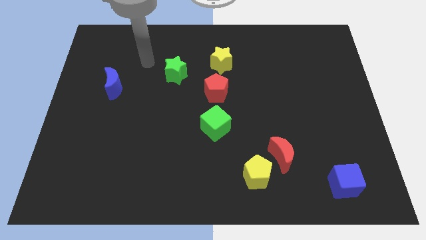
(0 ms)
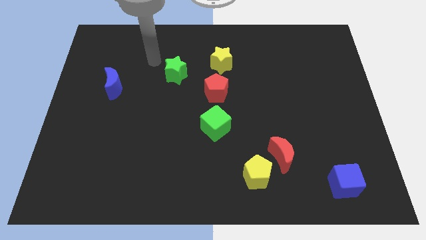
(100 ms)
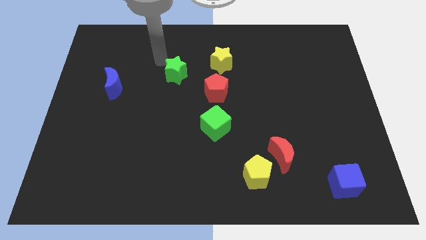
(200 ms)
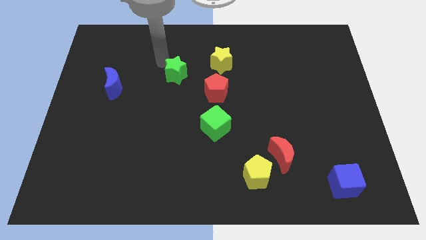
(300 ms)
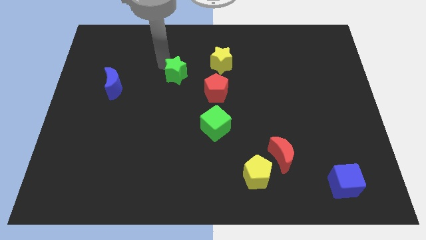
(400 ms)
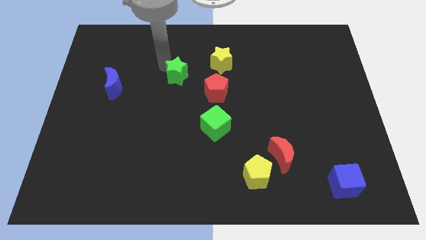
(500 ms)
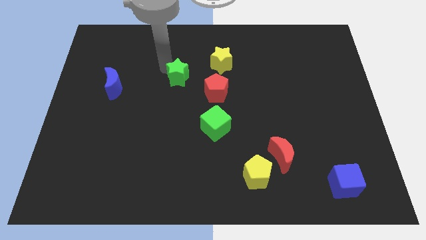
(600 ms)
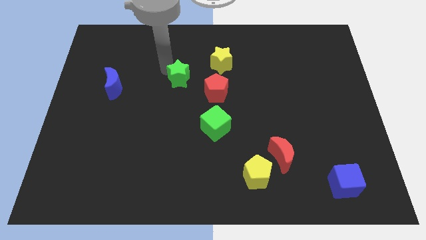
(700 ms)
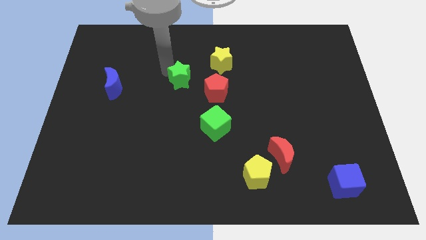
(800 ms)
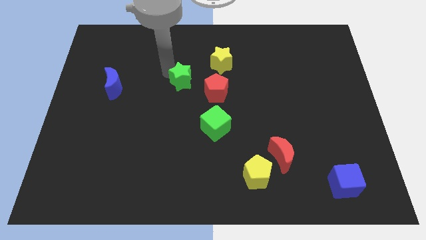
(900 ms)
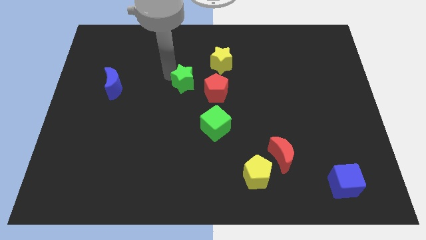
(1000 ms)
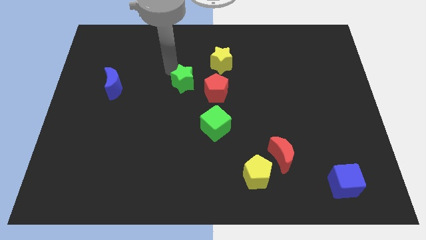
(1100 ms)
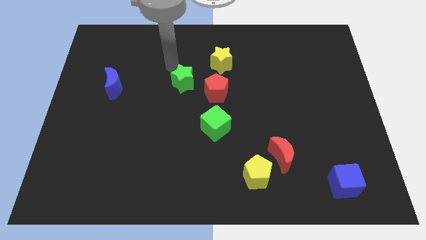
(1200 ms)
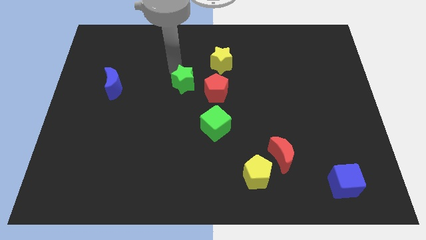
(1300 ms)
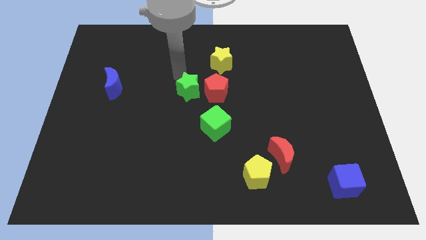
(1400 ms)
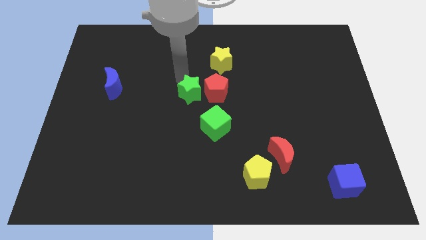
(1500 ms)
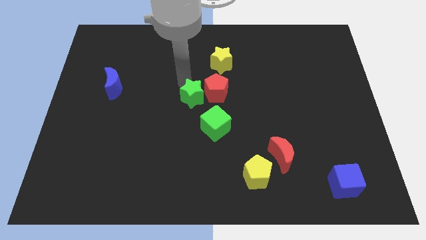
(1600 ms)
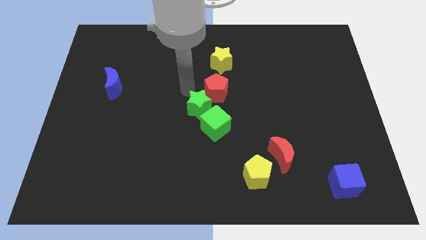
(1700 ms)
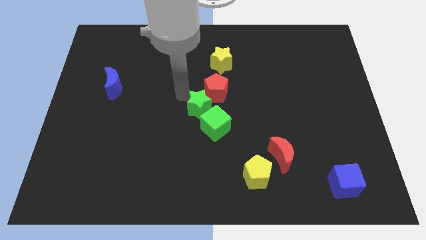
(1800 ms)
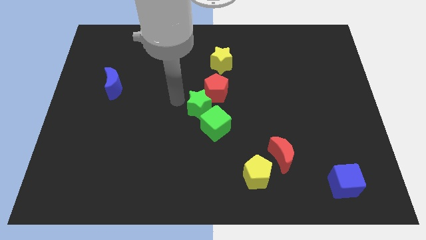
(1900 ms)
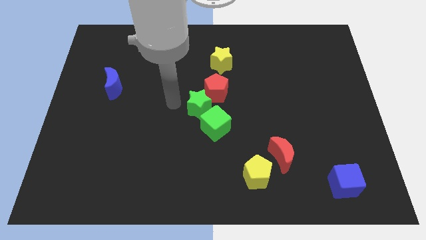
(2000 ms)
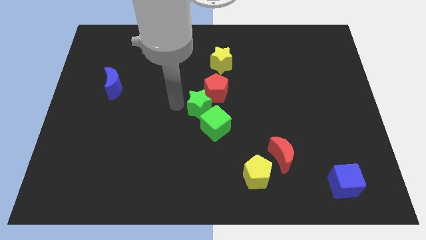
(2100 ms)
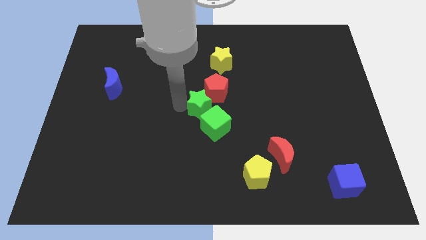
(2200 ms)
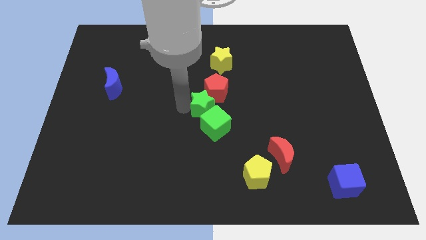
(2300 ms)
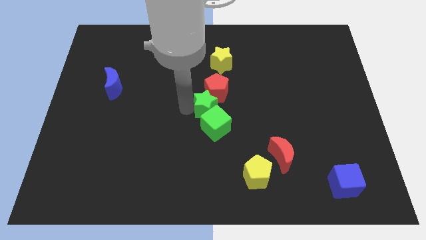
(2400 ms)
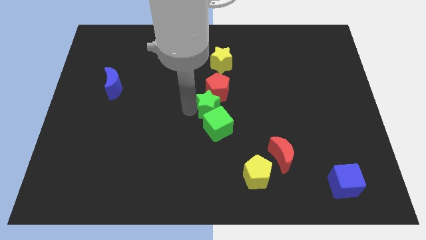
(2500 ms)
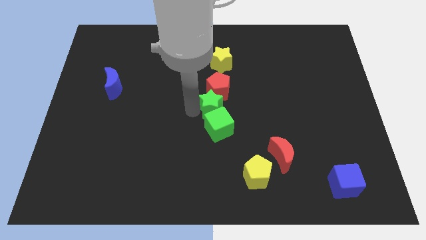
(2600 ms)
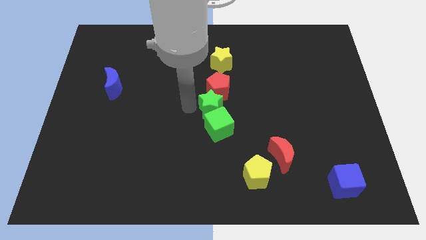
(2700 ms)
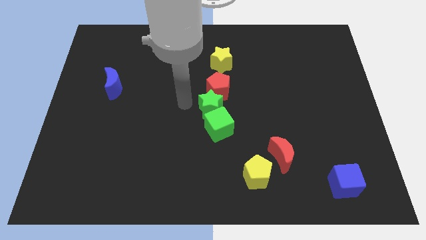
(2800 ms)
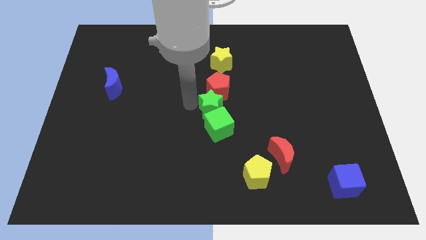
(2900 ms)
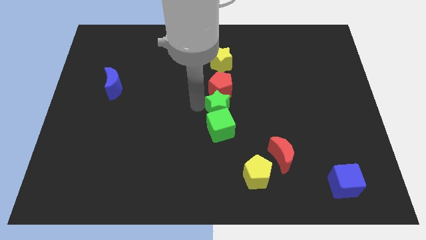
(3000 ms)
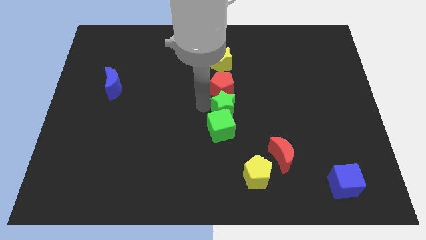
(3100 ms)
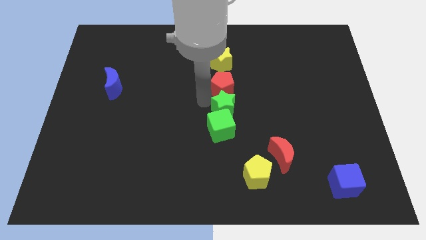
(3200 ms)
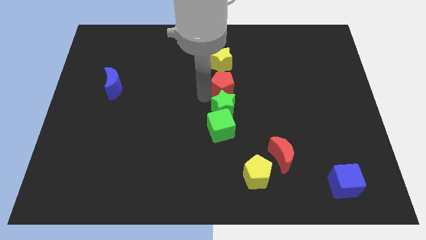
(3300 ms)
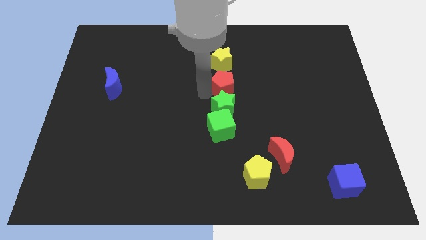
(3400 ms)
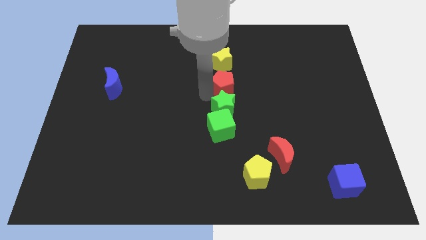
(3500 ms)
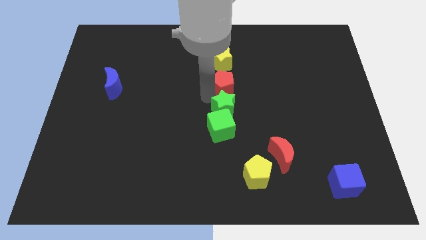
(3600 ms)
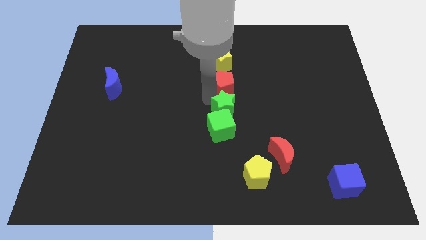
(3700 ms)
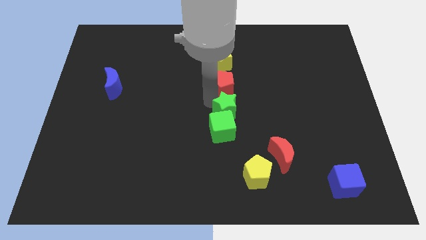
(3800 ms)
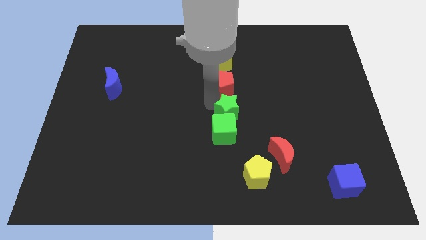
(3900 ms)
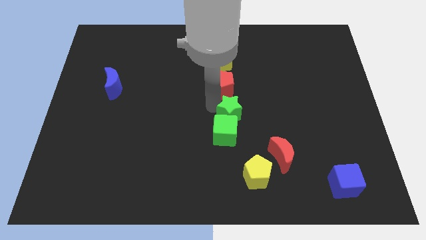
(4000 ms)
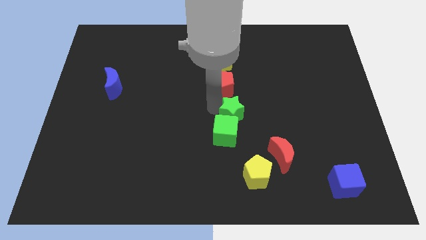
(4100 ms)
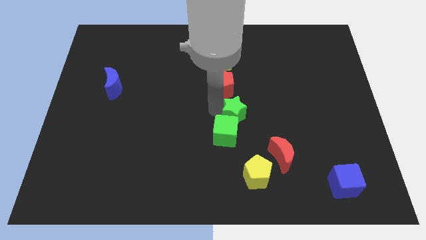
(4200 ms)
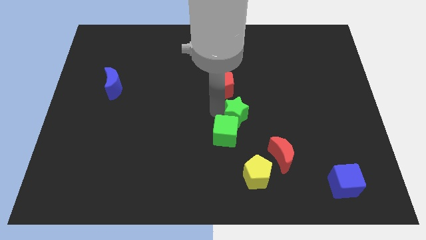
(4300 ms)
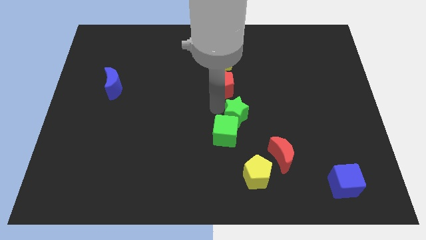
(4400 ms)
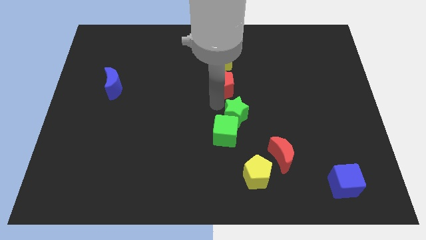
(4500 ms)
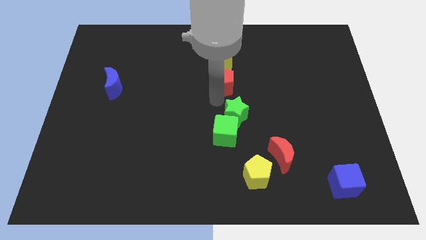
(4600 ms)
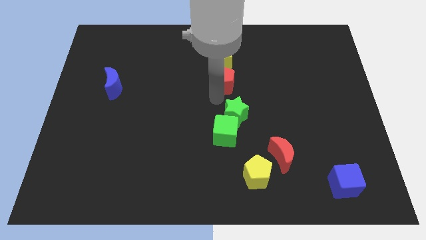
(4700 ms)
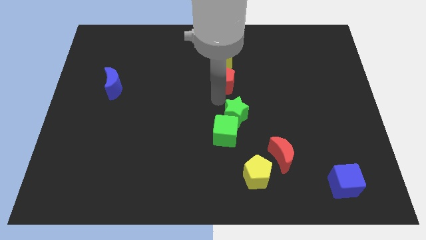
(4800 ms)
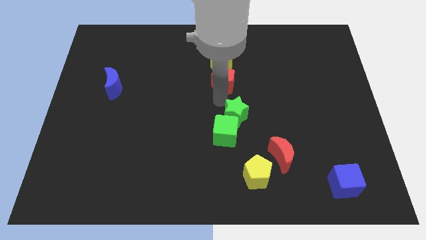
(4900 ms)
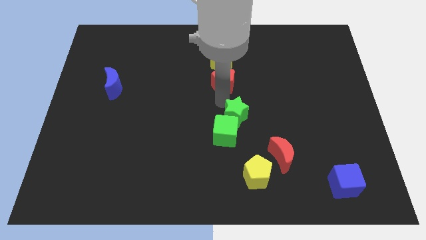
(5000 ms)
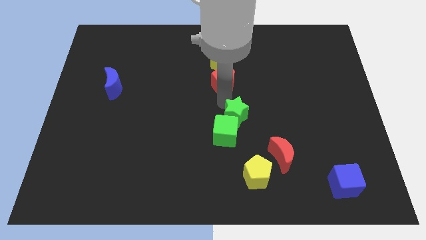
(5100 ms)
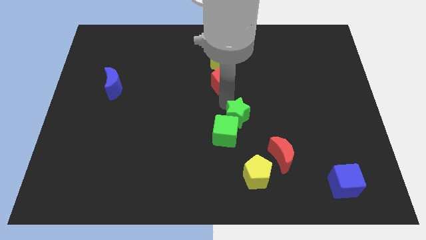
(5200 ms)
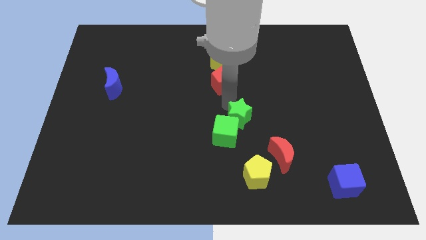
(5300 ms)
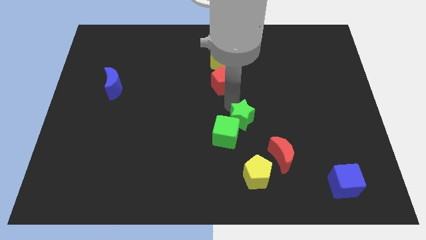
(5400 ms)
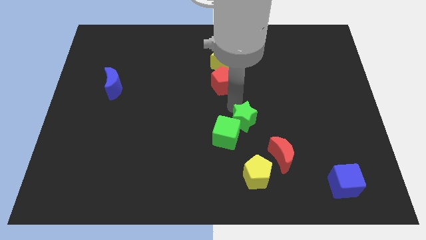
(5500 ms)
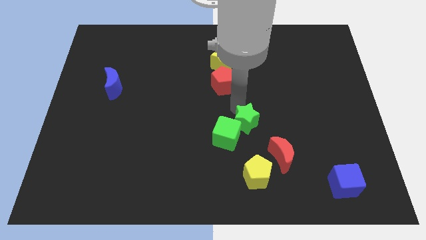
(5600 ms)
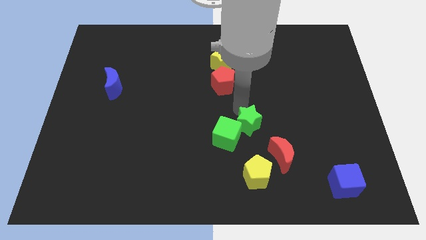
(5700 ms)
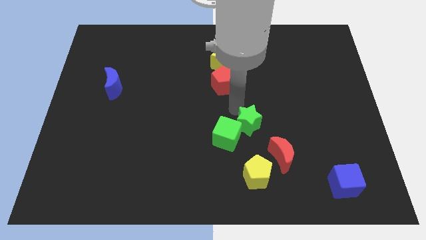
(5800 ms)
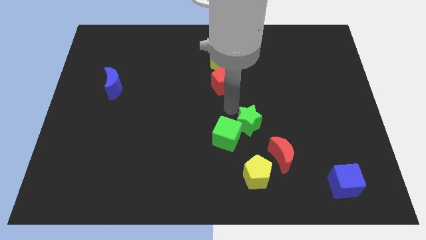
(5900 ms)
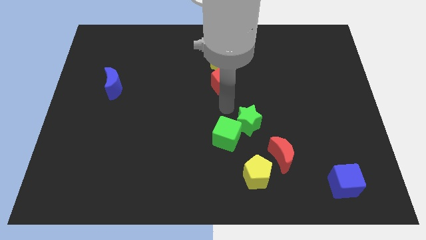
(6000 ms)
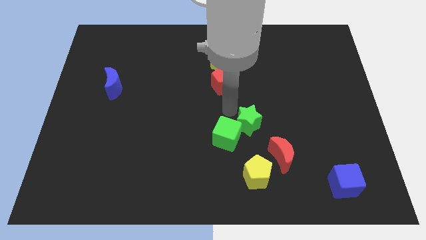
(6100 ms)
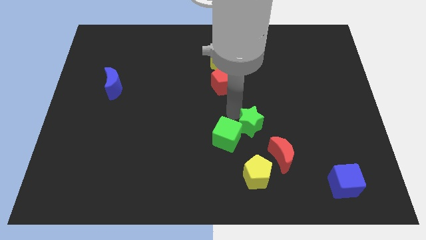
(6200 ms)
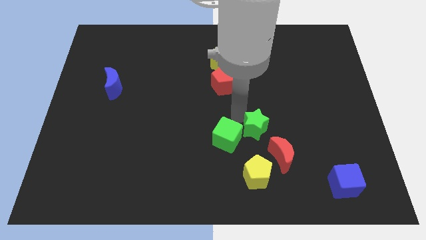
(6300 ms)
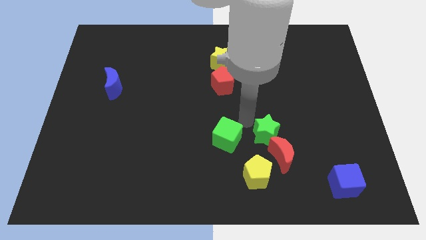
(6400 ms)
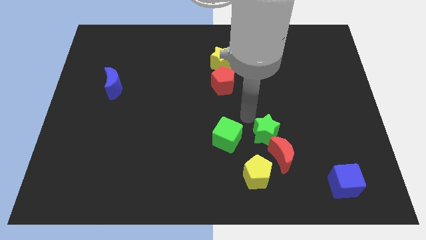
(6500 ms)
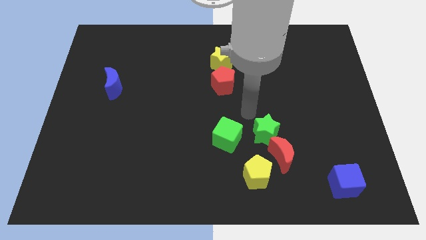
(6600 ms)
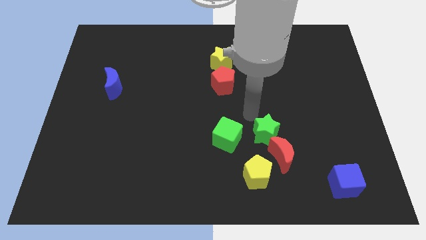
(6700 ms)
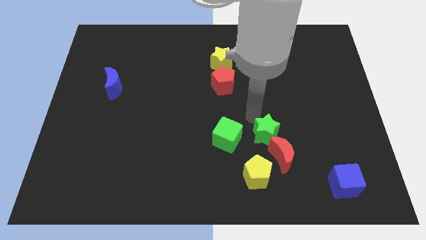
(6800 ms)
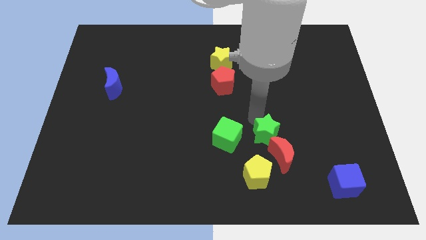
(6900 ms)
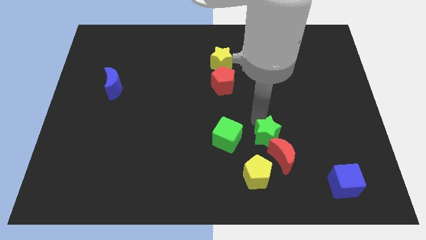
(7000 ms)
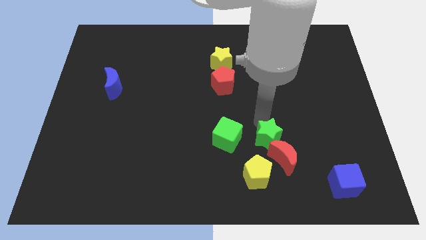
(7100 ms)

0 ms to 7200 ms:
push the green star next to the red moon
